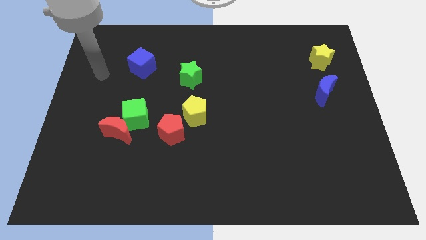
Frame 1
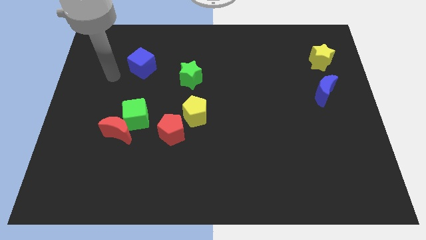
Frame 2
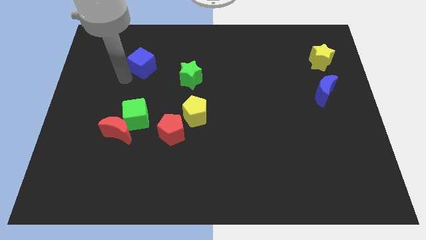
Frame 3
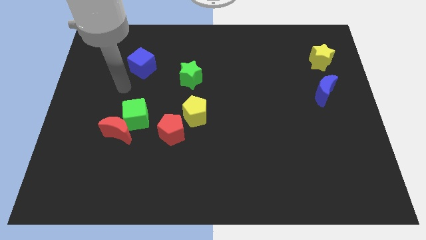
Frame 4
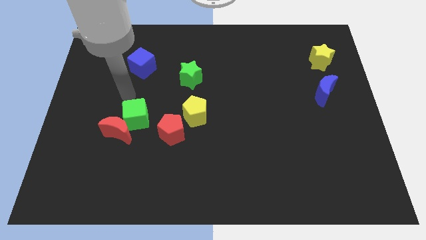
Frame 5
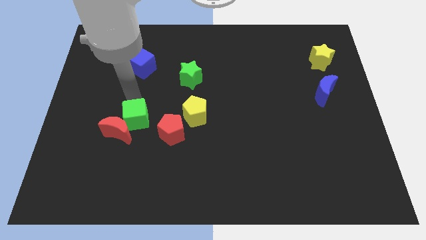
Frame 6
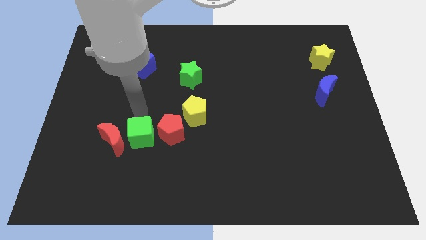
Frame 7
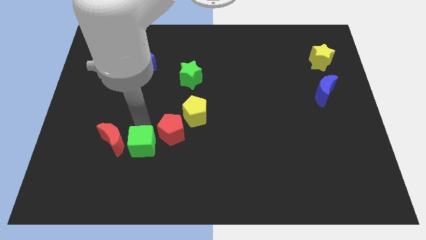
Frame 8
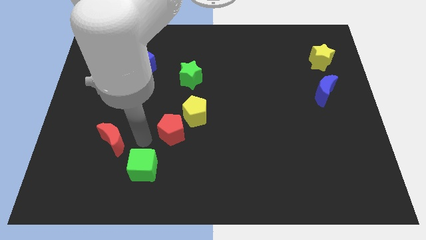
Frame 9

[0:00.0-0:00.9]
separate the red moon from the green cube

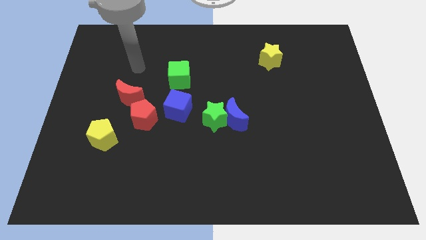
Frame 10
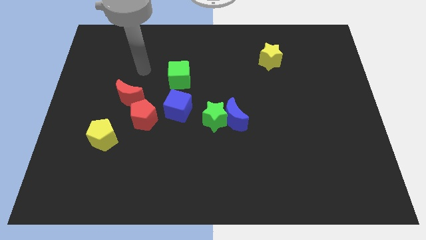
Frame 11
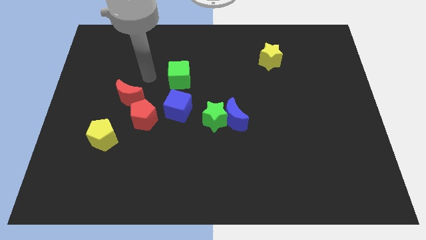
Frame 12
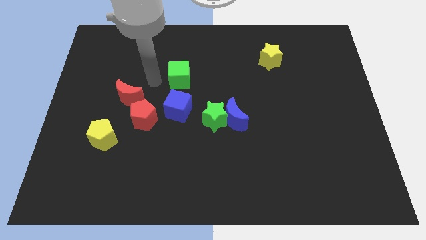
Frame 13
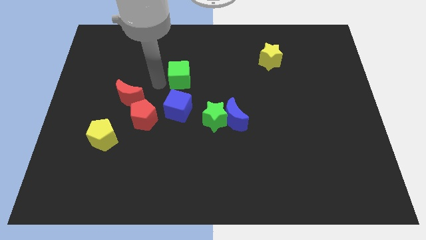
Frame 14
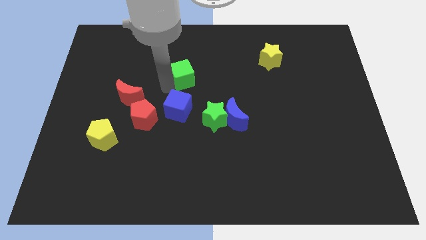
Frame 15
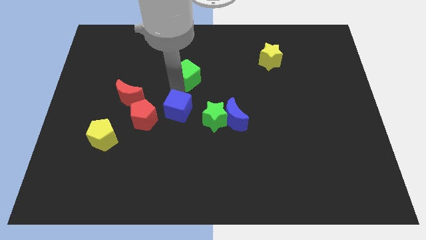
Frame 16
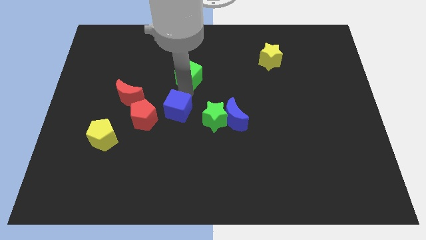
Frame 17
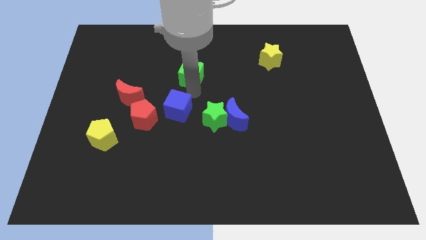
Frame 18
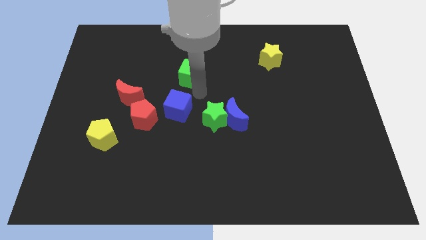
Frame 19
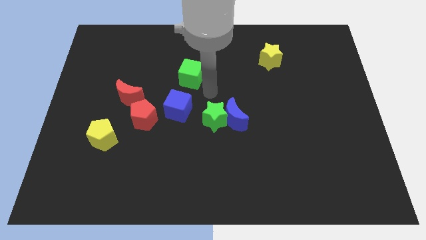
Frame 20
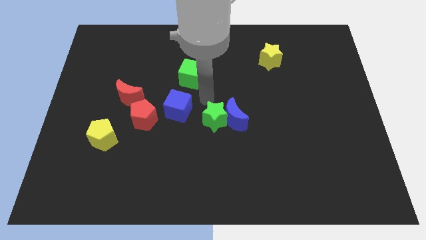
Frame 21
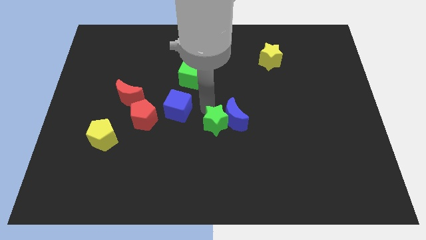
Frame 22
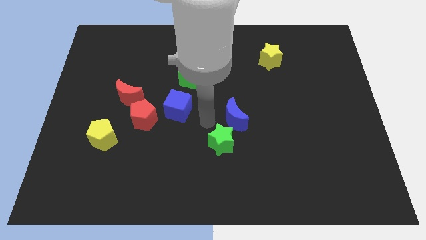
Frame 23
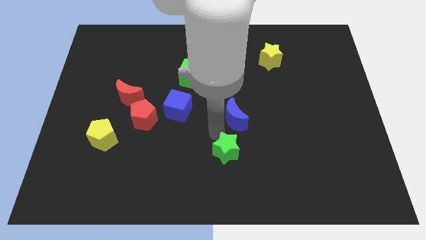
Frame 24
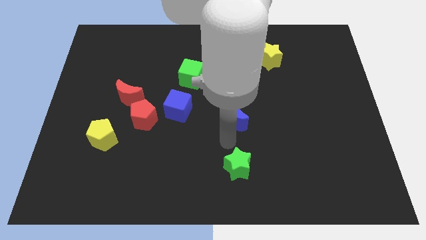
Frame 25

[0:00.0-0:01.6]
separate the blue moon from the green star

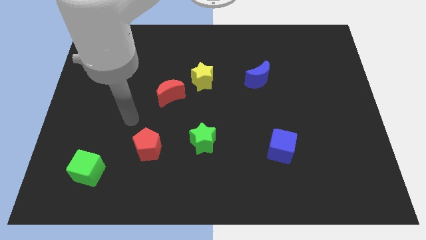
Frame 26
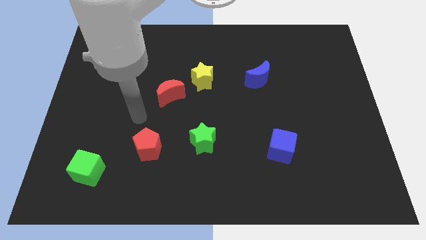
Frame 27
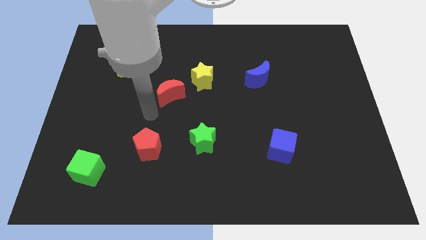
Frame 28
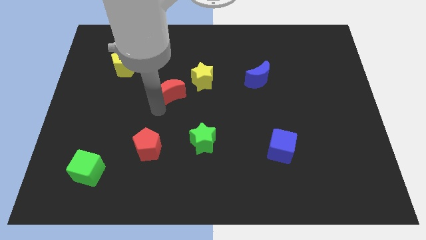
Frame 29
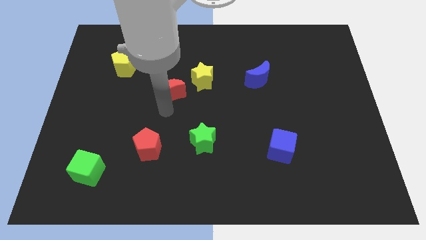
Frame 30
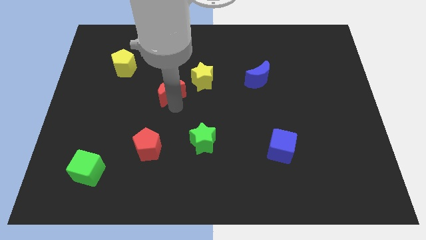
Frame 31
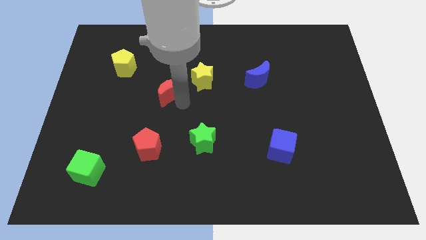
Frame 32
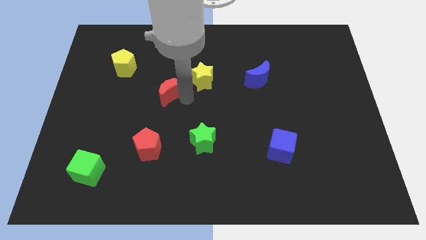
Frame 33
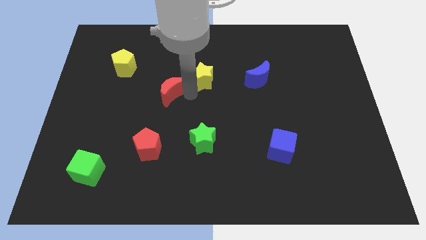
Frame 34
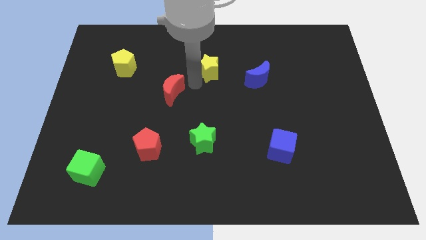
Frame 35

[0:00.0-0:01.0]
separate the red moon from the yellow star

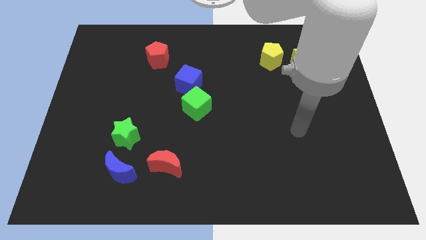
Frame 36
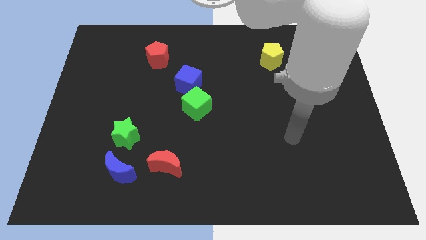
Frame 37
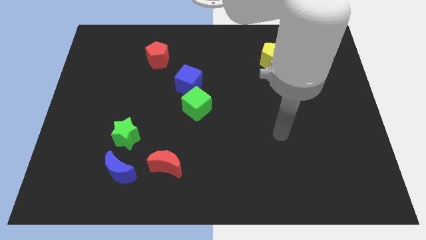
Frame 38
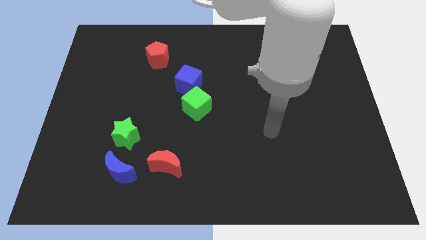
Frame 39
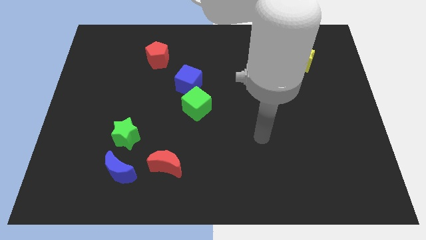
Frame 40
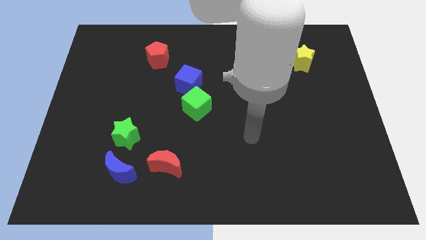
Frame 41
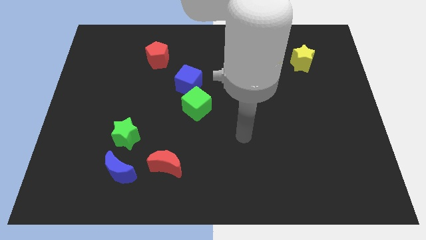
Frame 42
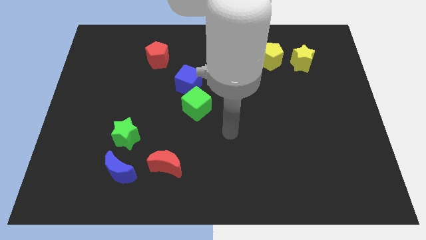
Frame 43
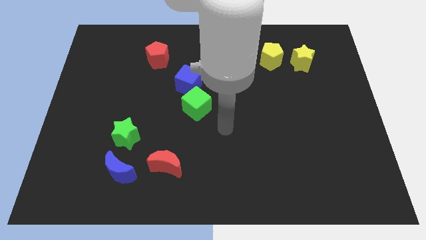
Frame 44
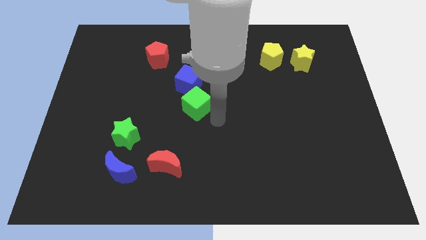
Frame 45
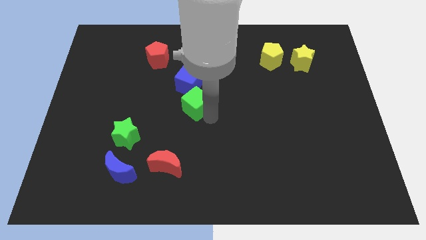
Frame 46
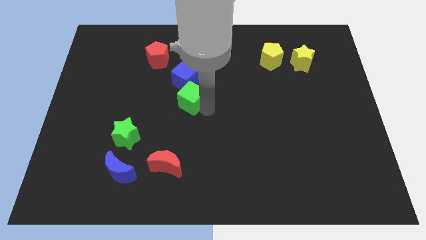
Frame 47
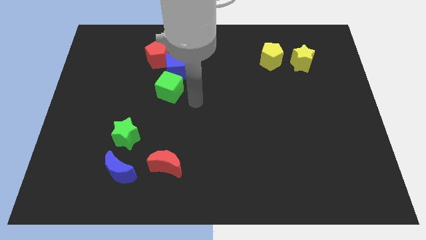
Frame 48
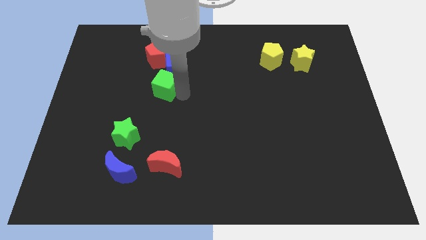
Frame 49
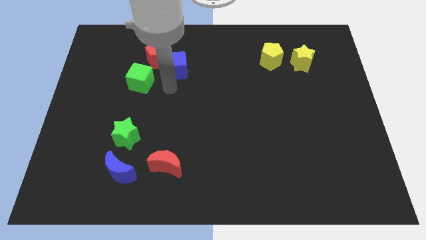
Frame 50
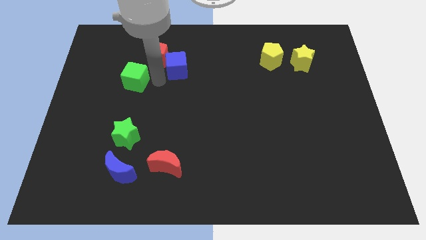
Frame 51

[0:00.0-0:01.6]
pull the blue cube apart from the green cube

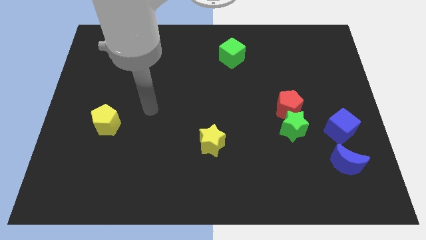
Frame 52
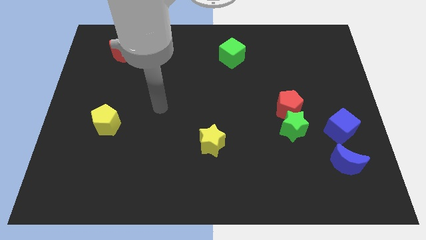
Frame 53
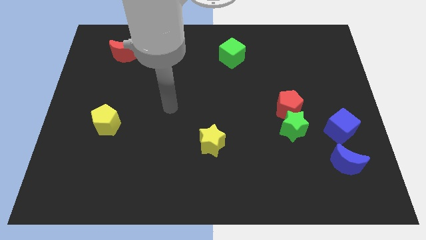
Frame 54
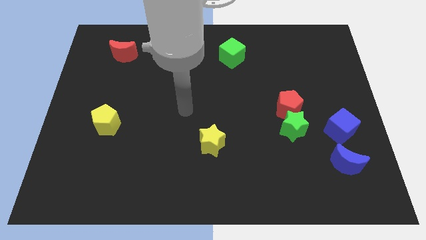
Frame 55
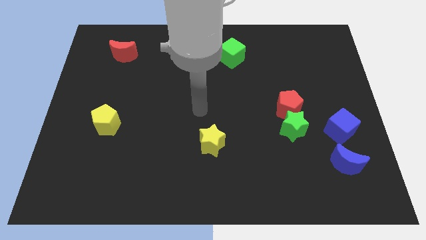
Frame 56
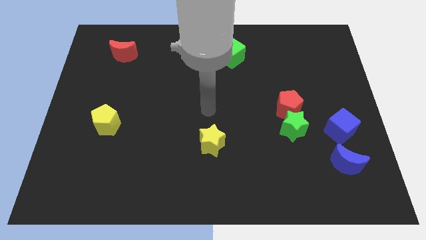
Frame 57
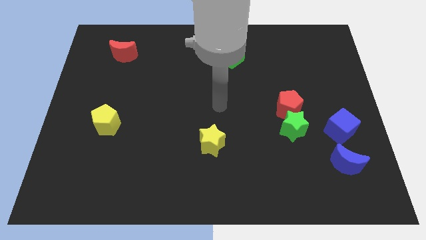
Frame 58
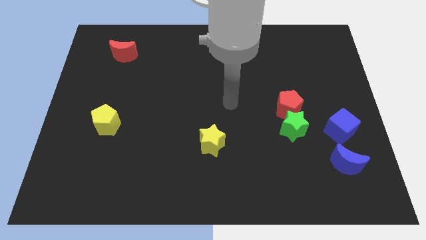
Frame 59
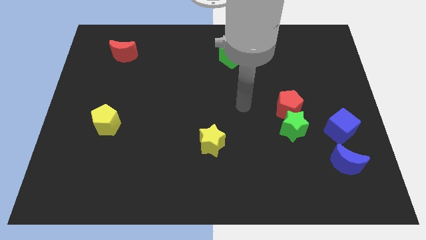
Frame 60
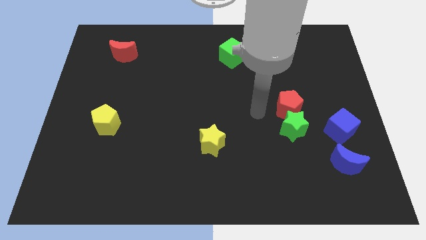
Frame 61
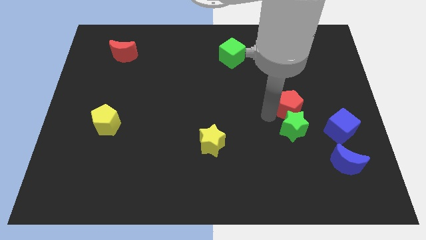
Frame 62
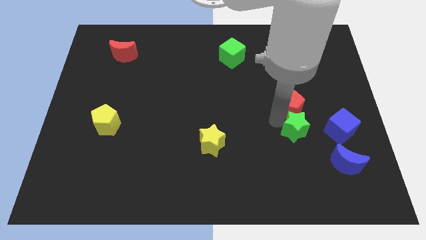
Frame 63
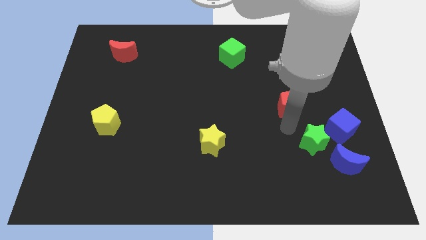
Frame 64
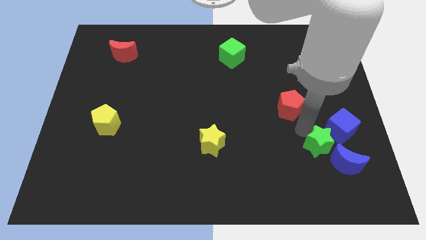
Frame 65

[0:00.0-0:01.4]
separate the red pentagon from the green star

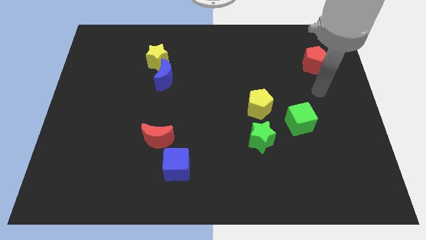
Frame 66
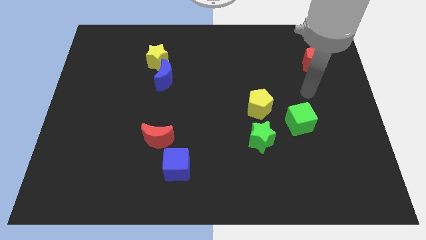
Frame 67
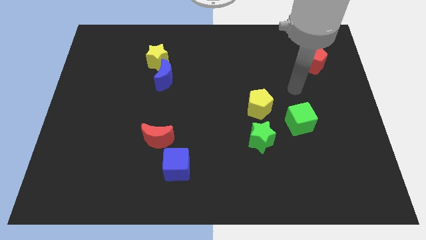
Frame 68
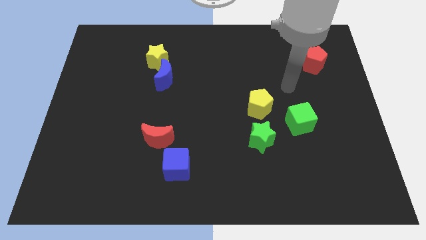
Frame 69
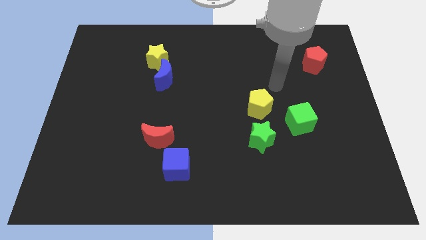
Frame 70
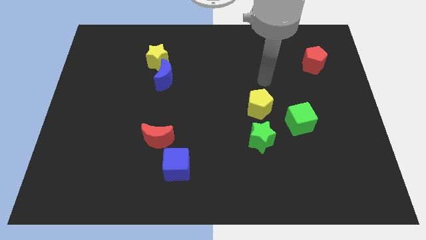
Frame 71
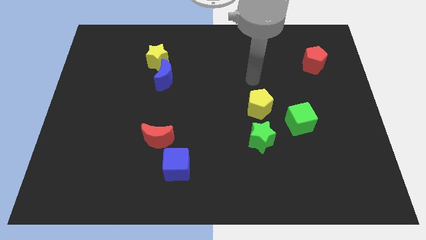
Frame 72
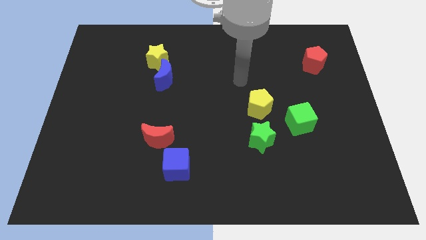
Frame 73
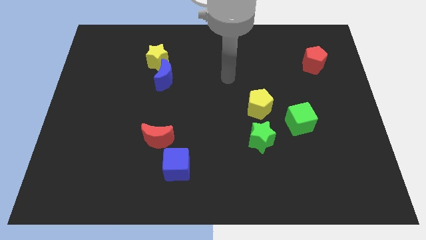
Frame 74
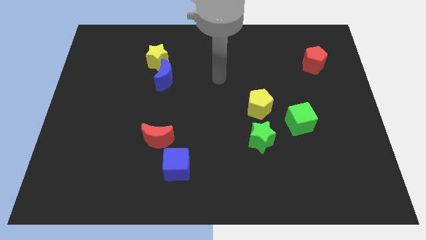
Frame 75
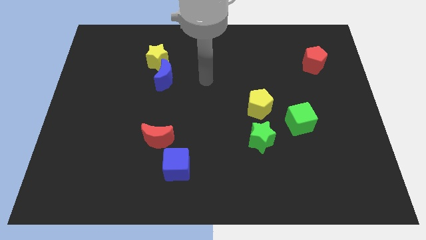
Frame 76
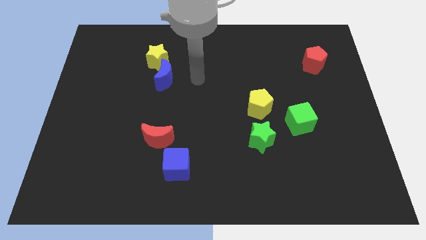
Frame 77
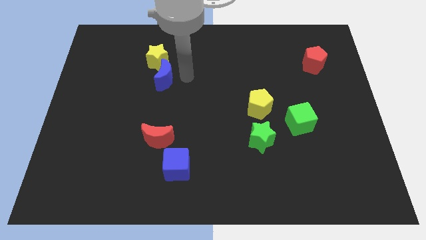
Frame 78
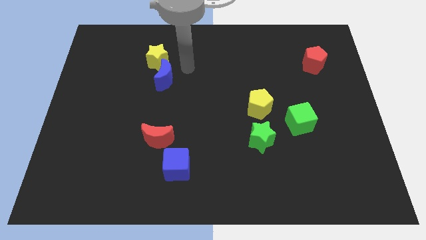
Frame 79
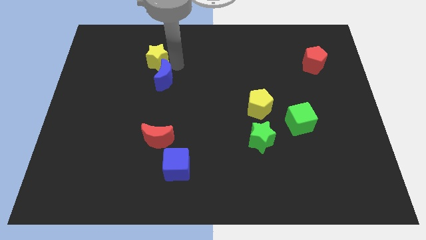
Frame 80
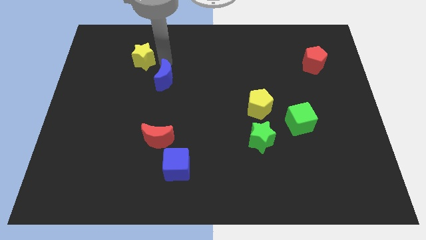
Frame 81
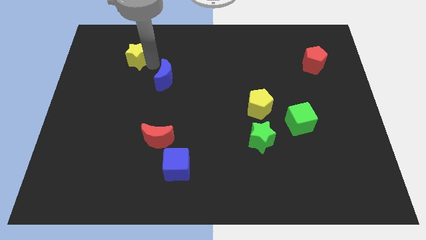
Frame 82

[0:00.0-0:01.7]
separate the blue moon from the yellow star

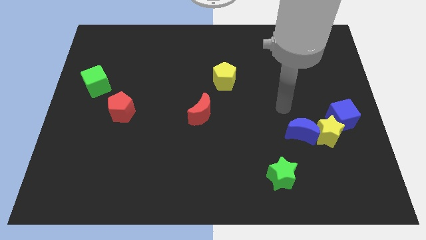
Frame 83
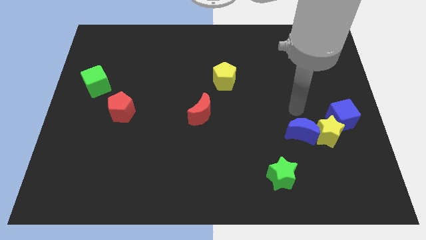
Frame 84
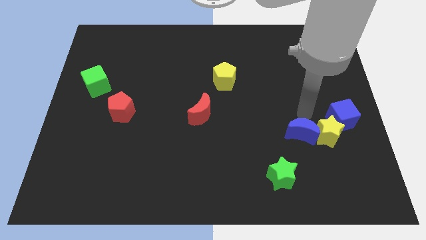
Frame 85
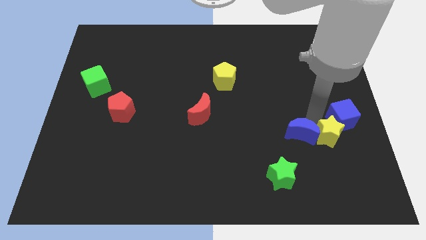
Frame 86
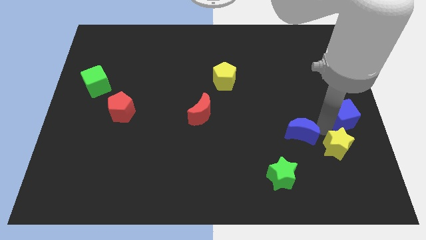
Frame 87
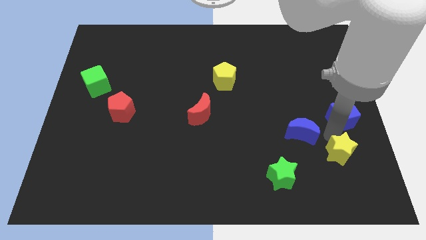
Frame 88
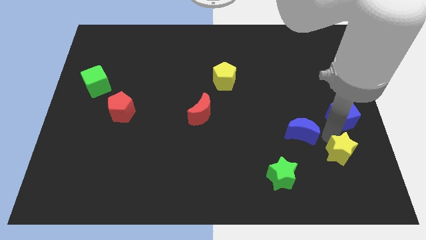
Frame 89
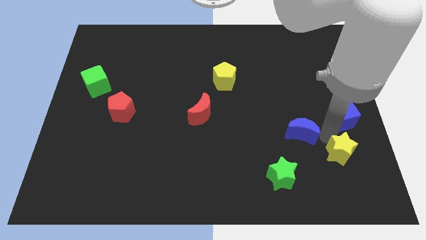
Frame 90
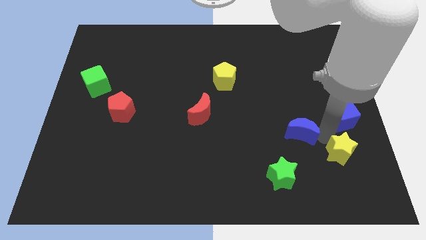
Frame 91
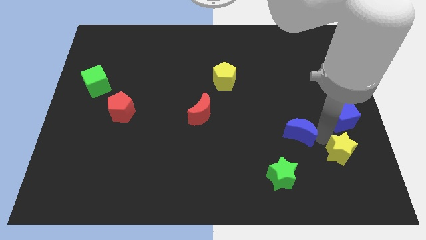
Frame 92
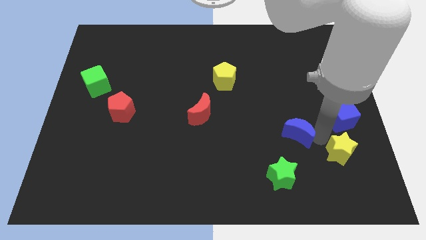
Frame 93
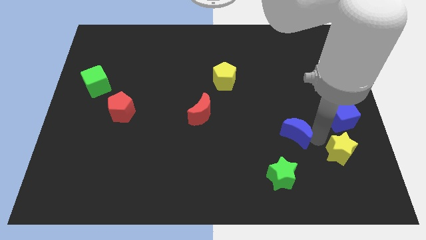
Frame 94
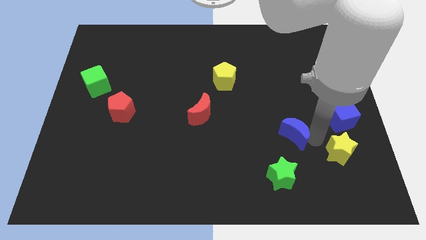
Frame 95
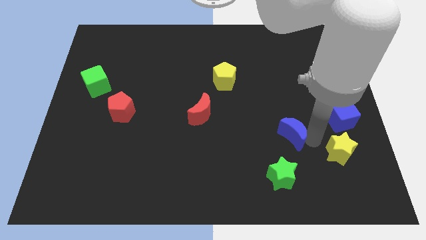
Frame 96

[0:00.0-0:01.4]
pull the blue moon apart from the yellow star
